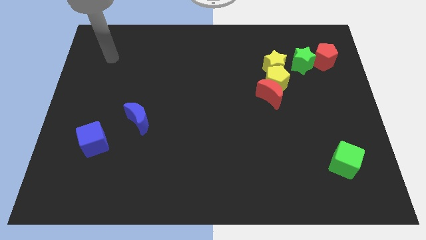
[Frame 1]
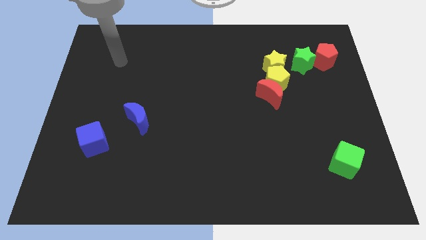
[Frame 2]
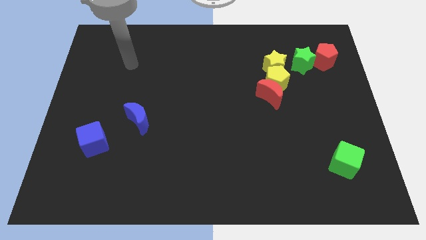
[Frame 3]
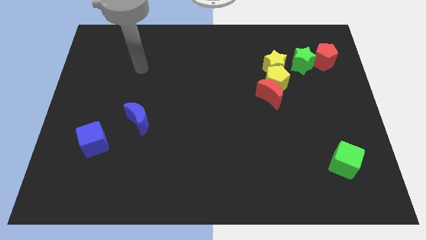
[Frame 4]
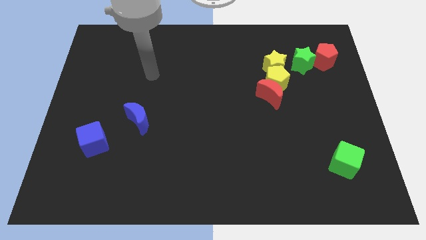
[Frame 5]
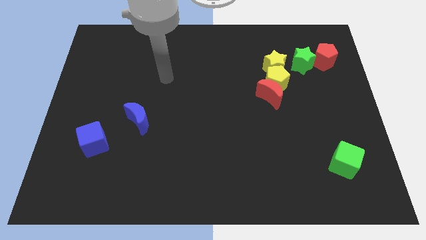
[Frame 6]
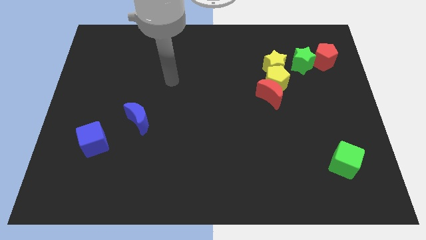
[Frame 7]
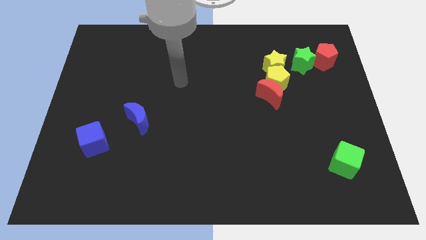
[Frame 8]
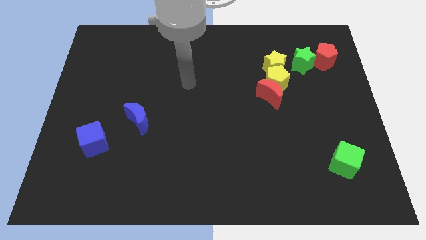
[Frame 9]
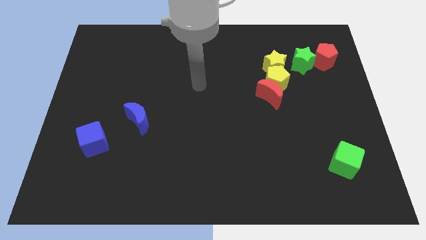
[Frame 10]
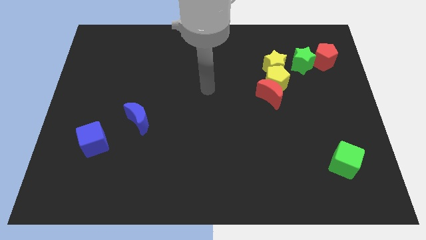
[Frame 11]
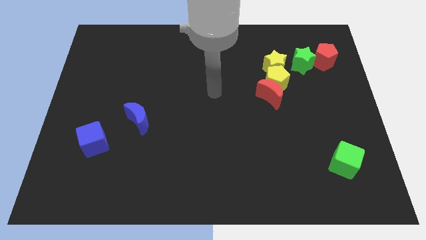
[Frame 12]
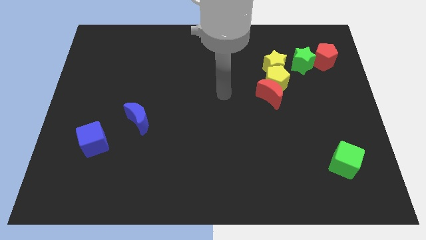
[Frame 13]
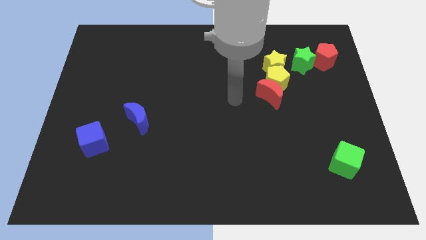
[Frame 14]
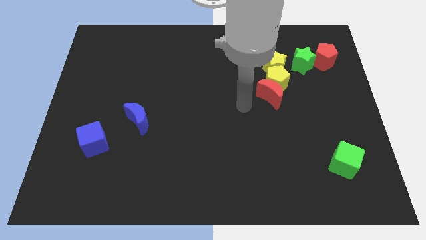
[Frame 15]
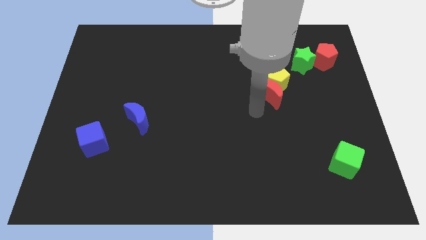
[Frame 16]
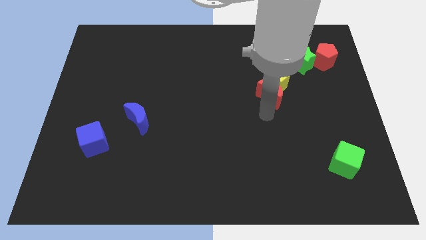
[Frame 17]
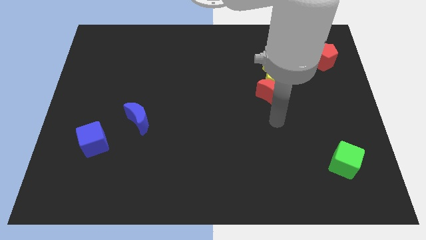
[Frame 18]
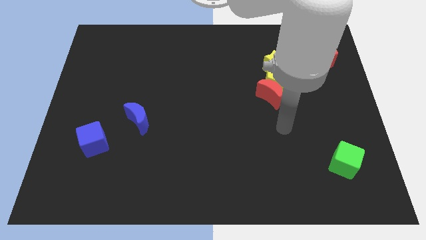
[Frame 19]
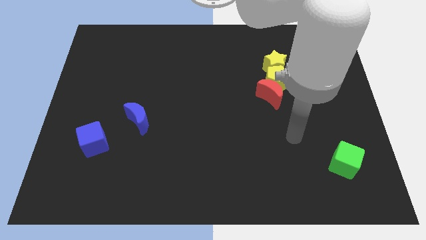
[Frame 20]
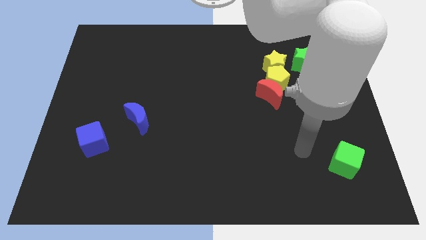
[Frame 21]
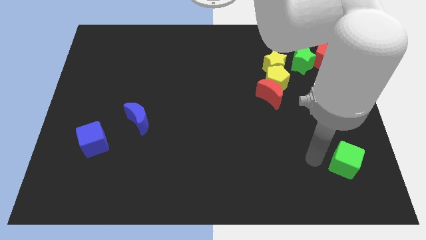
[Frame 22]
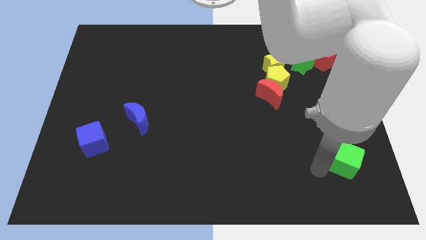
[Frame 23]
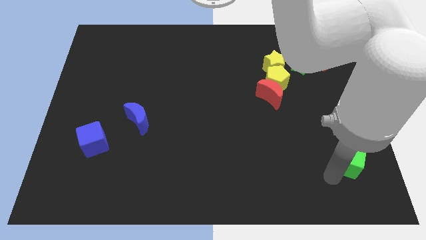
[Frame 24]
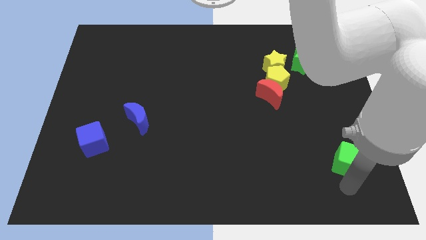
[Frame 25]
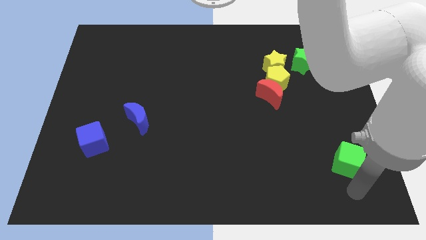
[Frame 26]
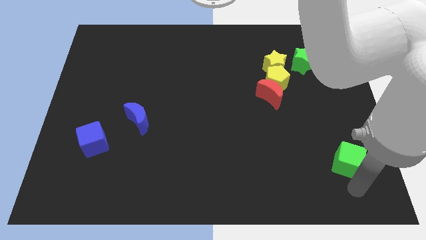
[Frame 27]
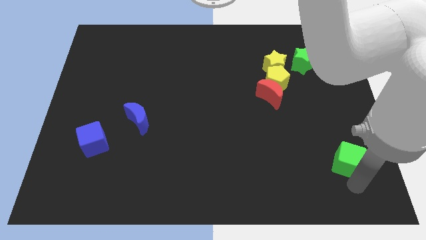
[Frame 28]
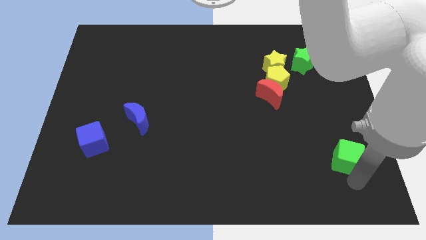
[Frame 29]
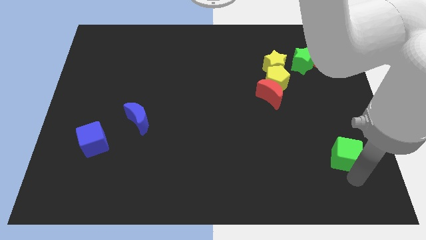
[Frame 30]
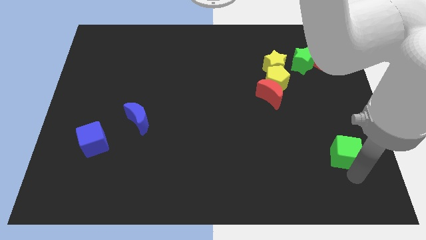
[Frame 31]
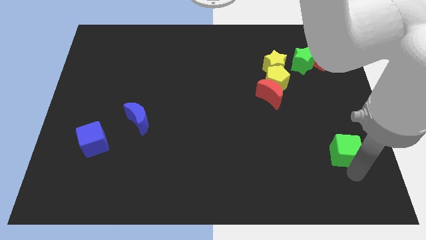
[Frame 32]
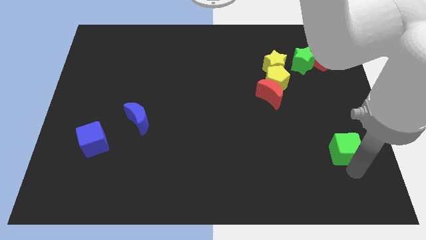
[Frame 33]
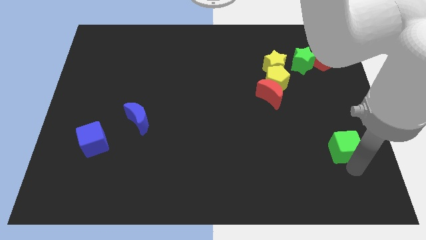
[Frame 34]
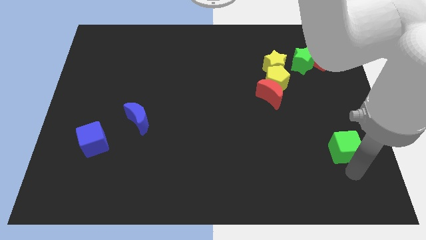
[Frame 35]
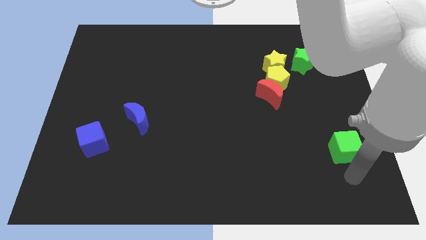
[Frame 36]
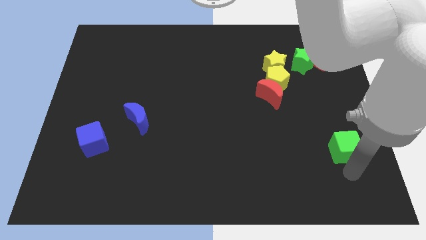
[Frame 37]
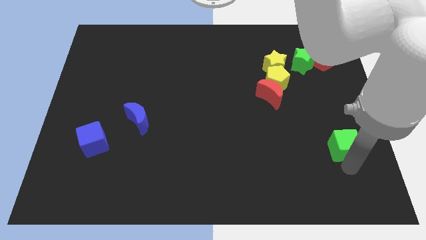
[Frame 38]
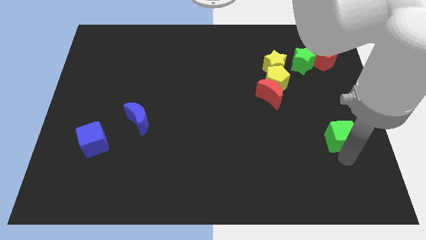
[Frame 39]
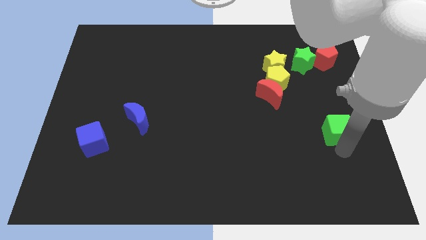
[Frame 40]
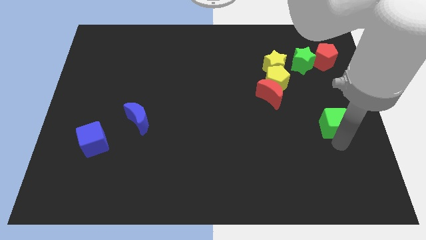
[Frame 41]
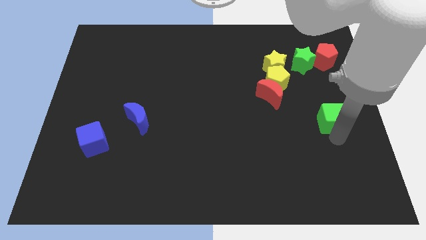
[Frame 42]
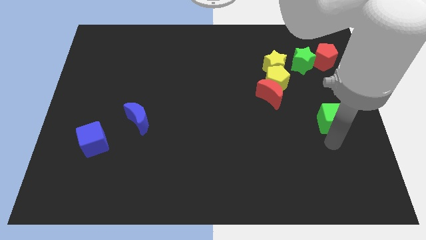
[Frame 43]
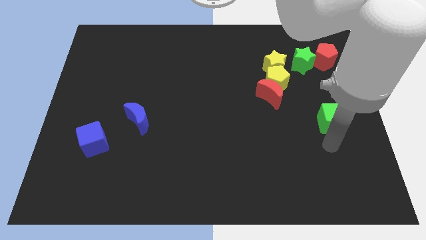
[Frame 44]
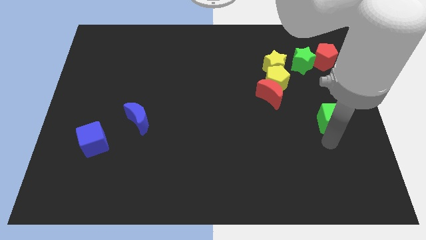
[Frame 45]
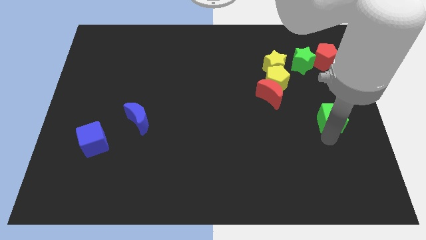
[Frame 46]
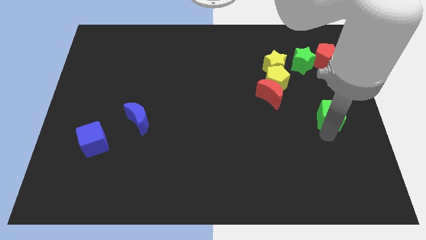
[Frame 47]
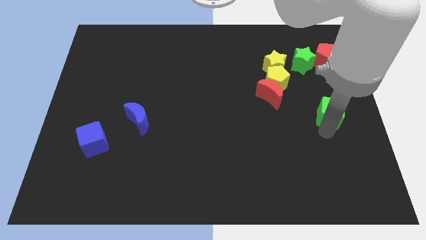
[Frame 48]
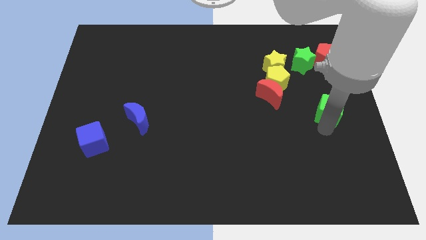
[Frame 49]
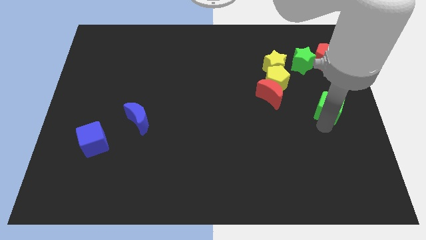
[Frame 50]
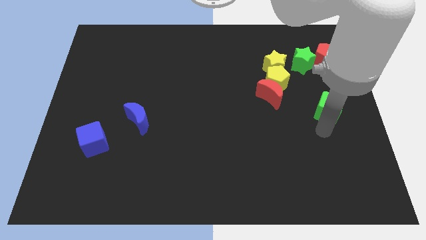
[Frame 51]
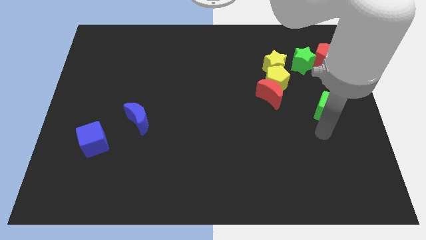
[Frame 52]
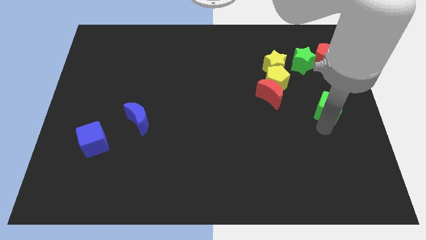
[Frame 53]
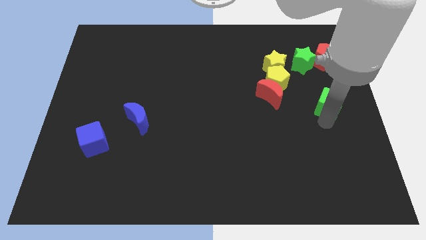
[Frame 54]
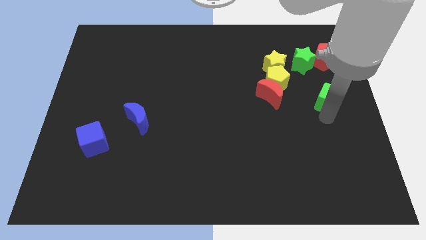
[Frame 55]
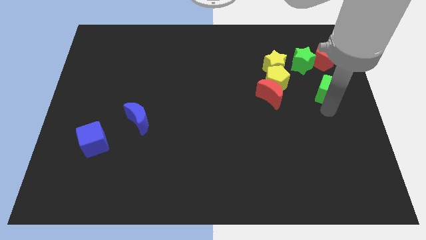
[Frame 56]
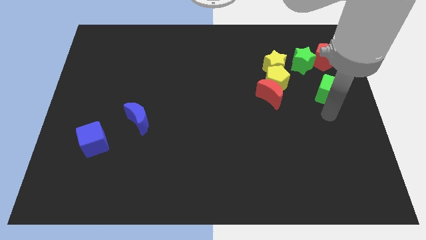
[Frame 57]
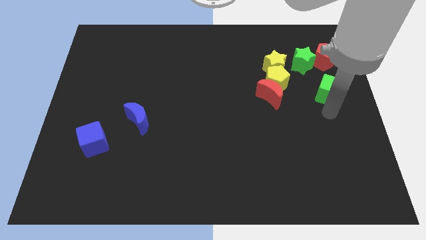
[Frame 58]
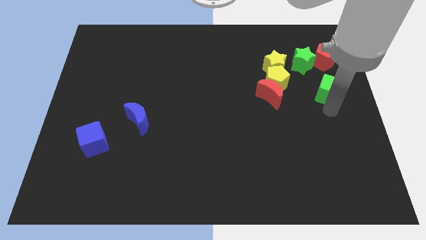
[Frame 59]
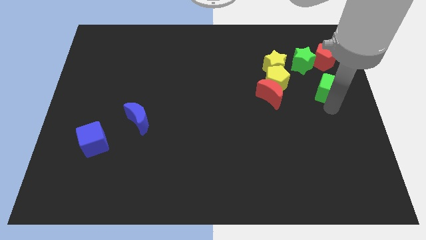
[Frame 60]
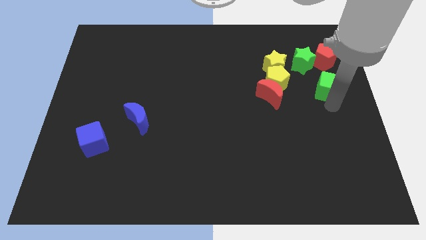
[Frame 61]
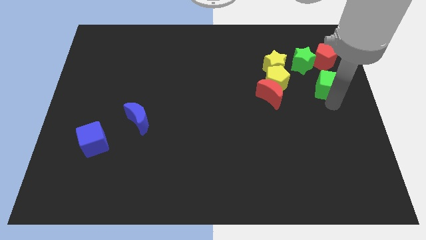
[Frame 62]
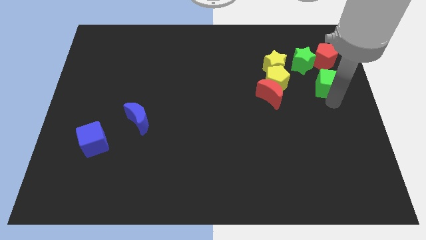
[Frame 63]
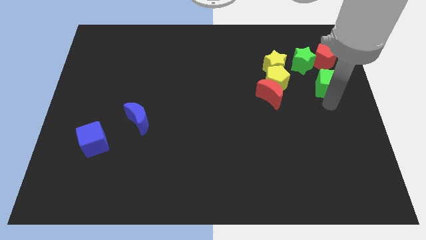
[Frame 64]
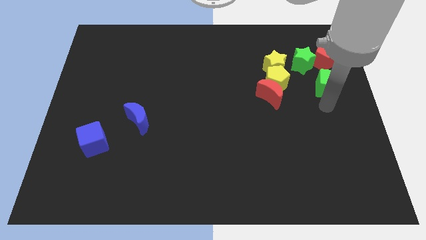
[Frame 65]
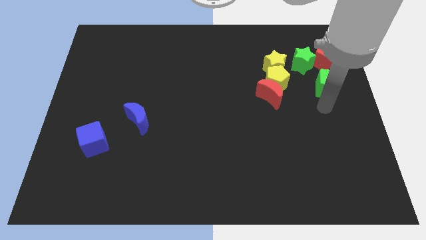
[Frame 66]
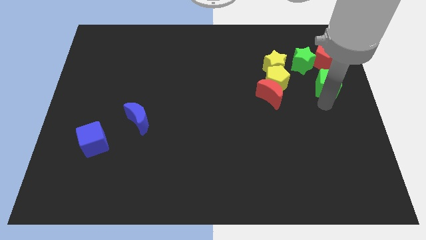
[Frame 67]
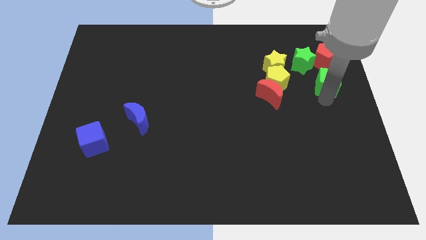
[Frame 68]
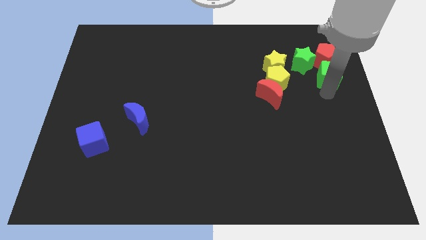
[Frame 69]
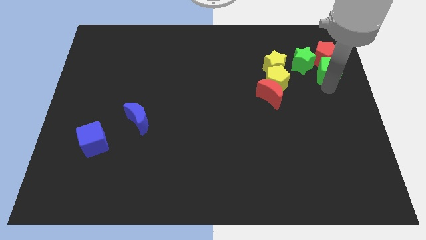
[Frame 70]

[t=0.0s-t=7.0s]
slide the green cube close to the red pentagon

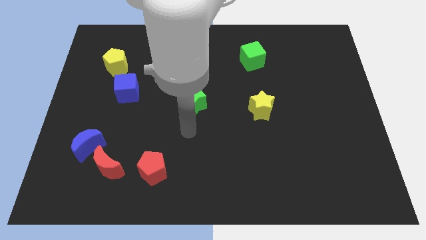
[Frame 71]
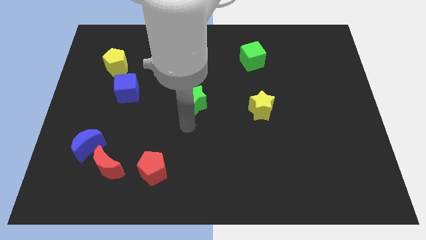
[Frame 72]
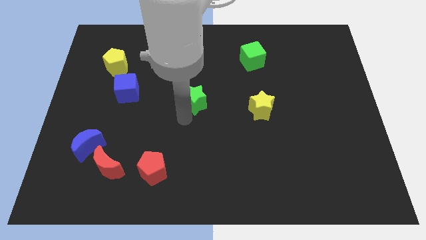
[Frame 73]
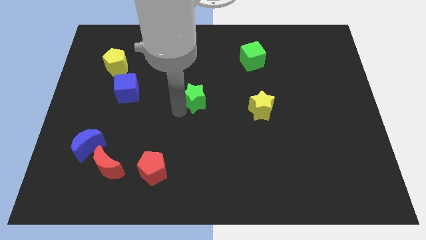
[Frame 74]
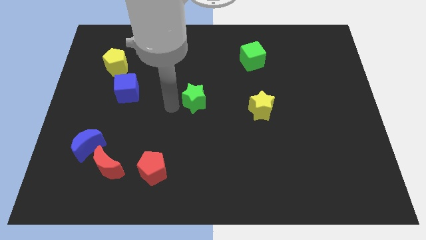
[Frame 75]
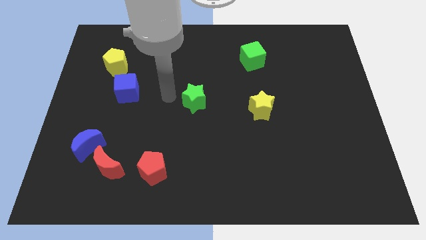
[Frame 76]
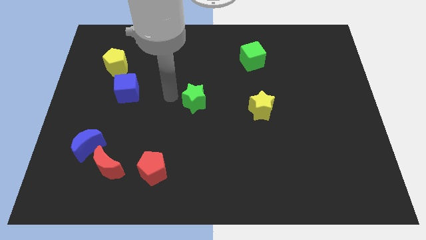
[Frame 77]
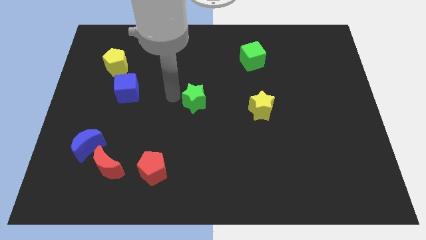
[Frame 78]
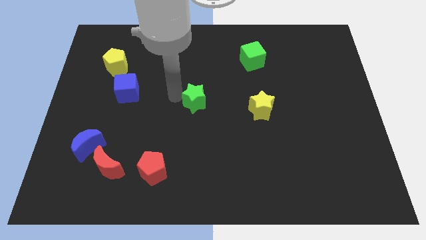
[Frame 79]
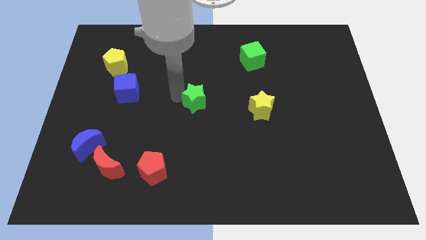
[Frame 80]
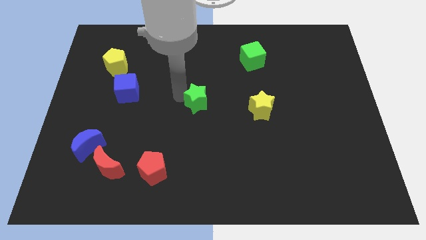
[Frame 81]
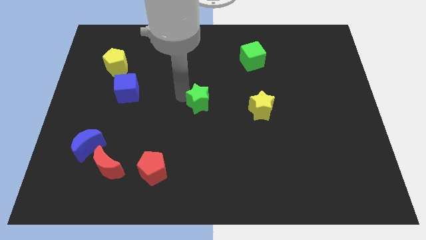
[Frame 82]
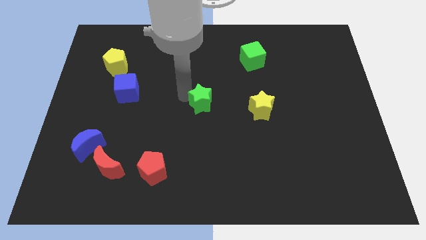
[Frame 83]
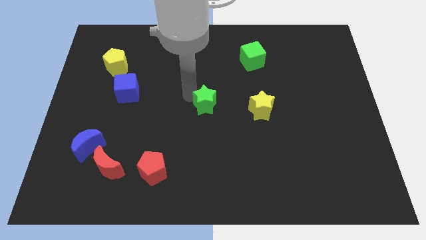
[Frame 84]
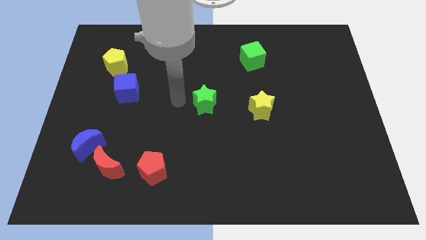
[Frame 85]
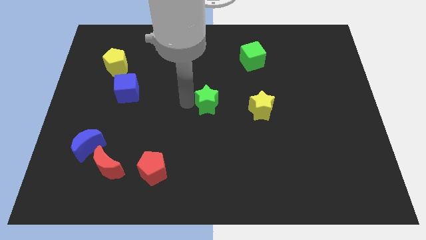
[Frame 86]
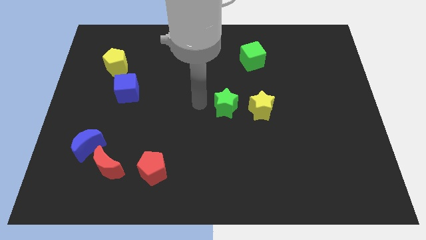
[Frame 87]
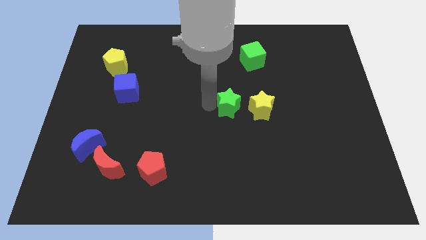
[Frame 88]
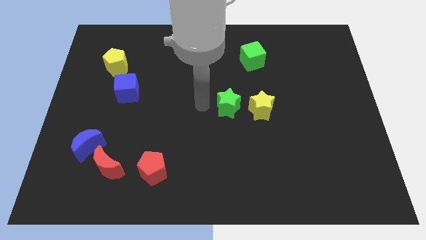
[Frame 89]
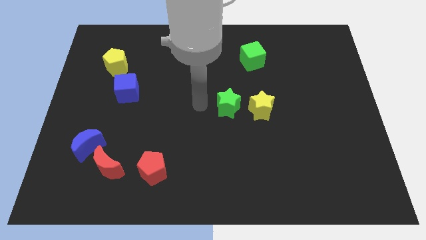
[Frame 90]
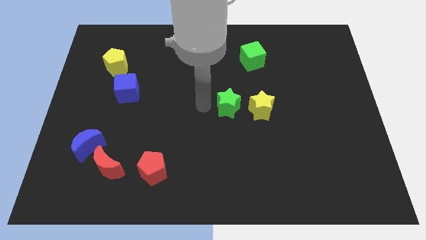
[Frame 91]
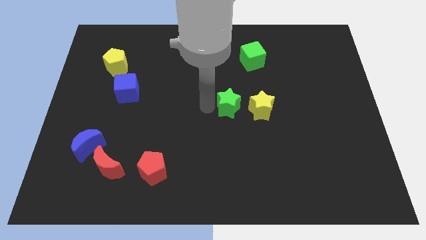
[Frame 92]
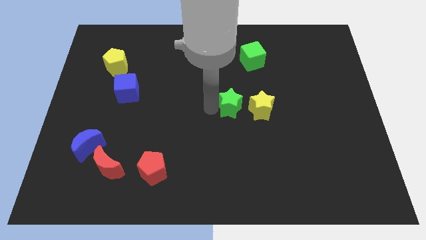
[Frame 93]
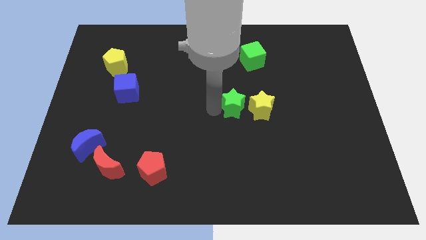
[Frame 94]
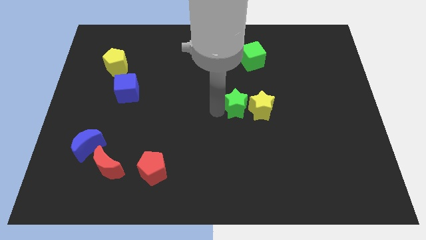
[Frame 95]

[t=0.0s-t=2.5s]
push the green star to the yellow star
